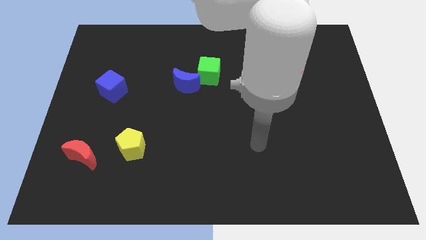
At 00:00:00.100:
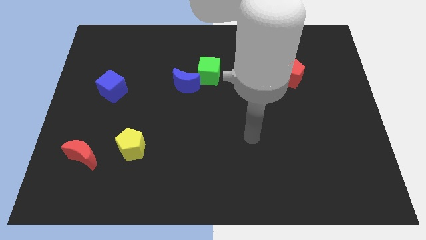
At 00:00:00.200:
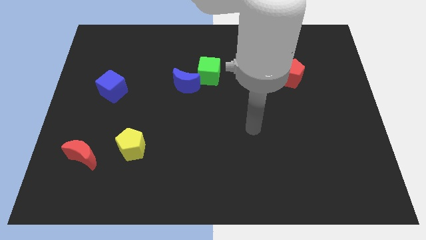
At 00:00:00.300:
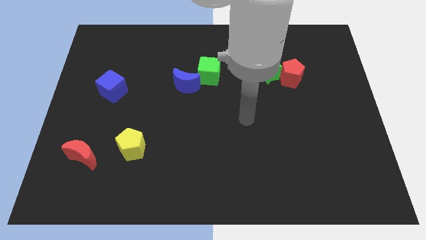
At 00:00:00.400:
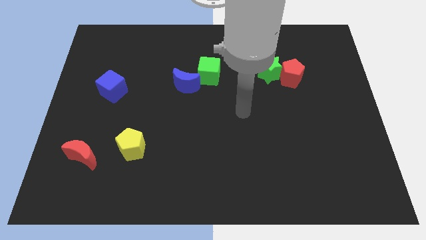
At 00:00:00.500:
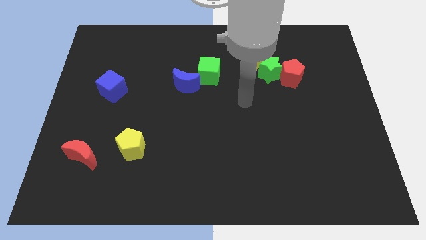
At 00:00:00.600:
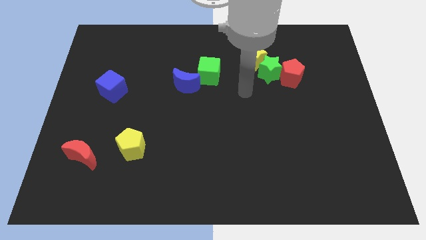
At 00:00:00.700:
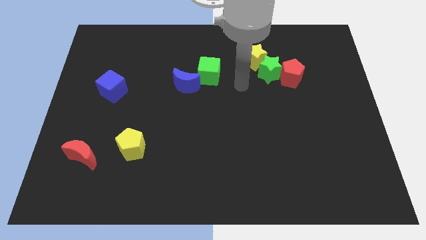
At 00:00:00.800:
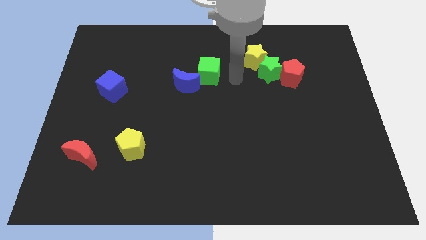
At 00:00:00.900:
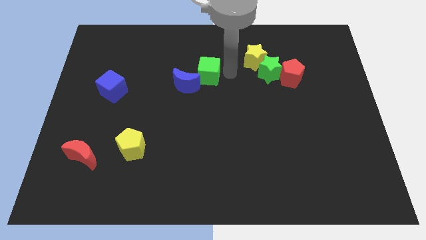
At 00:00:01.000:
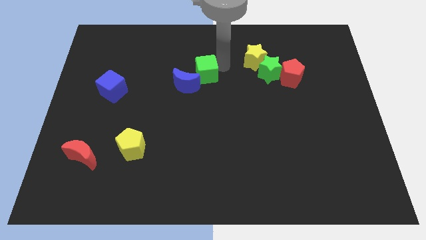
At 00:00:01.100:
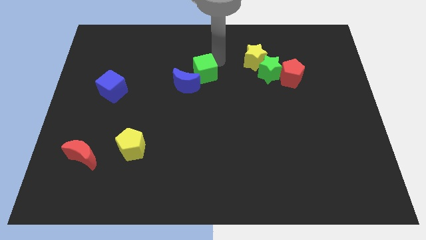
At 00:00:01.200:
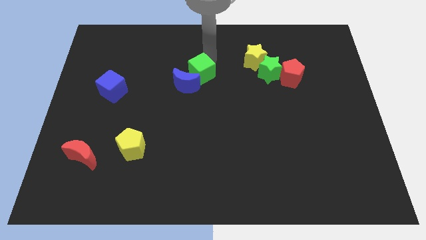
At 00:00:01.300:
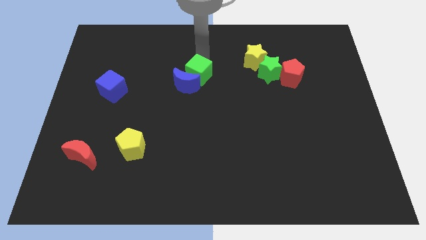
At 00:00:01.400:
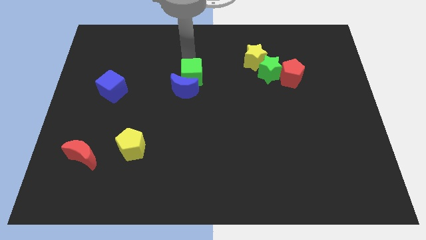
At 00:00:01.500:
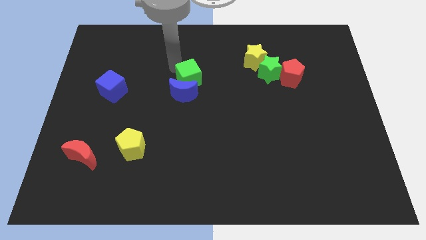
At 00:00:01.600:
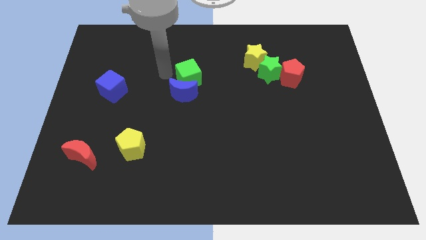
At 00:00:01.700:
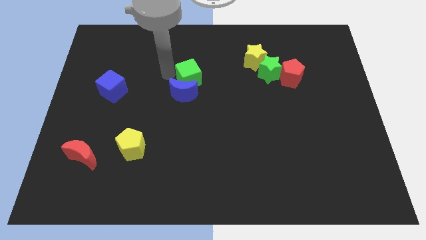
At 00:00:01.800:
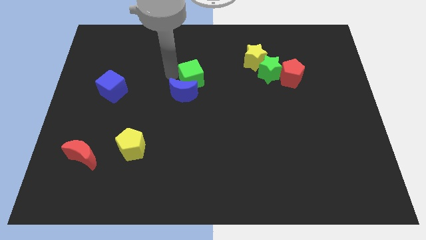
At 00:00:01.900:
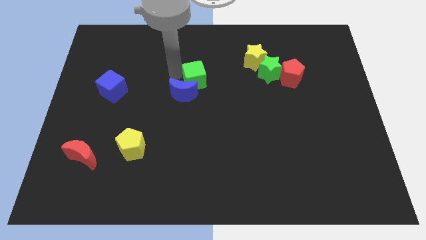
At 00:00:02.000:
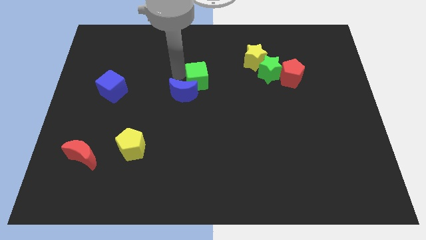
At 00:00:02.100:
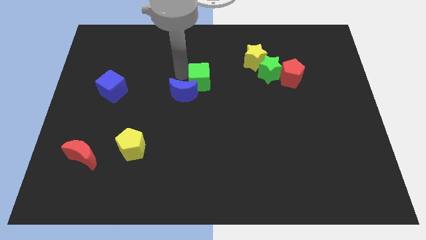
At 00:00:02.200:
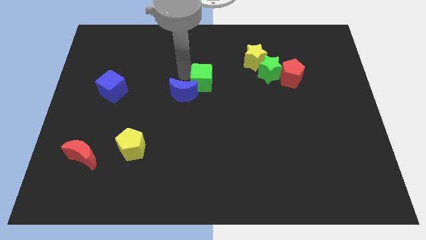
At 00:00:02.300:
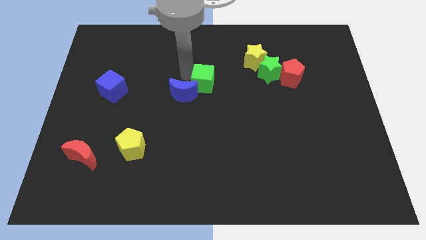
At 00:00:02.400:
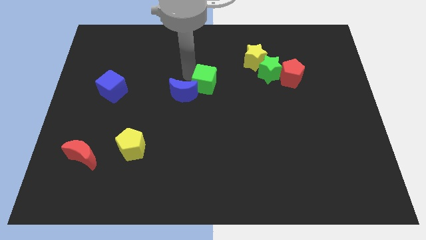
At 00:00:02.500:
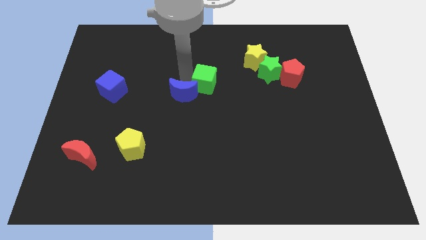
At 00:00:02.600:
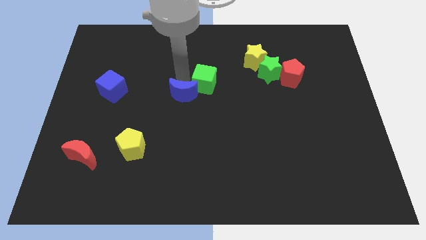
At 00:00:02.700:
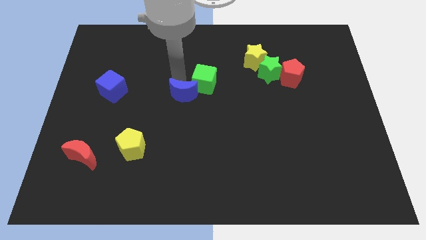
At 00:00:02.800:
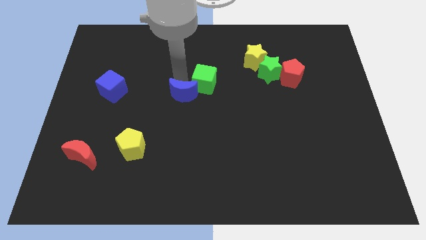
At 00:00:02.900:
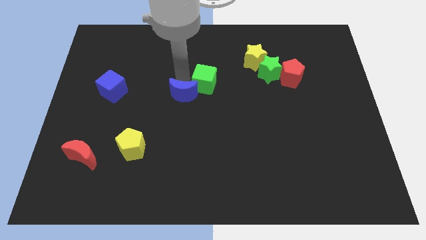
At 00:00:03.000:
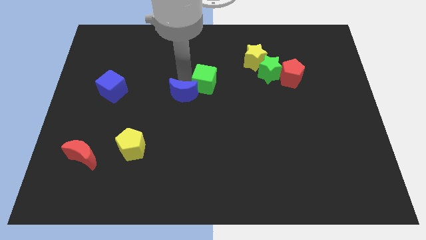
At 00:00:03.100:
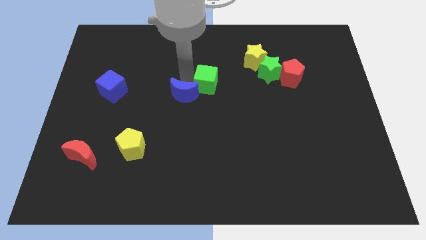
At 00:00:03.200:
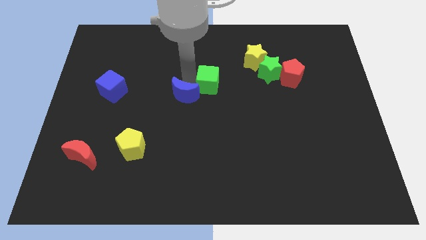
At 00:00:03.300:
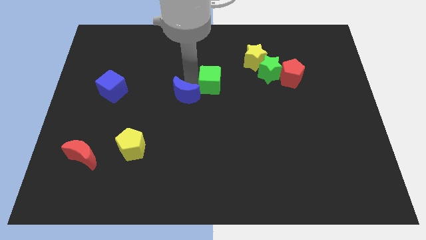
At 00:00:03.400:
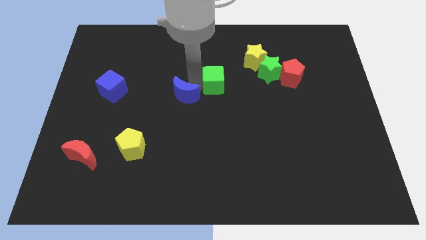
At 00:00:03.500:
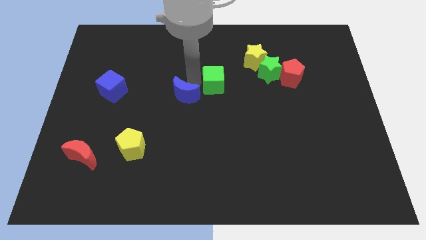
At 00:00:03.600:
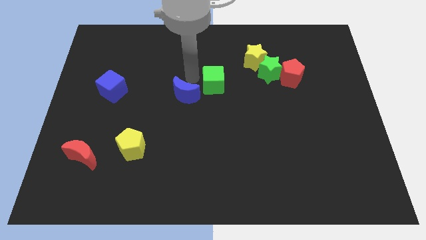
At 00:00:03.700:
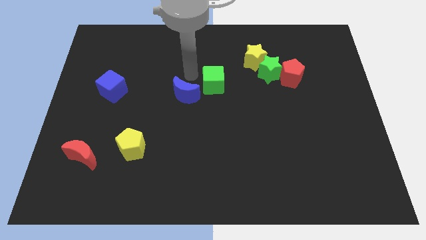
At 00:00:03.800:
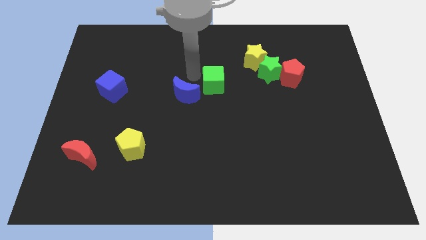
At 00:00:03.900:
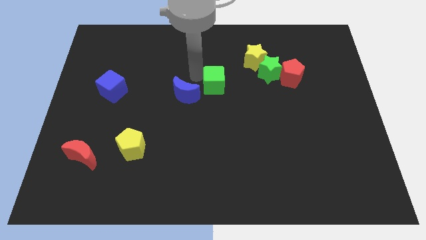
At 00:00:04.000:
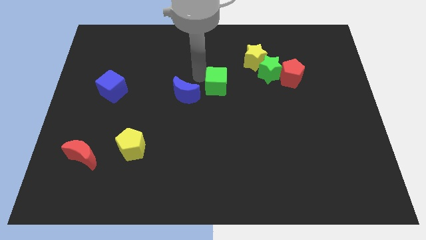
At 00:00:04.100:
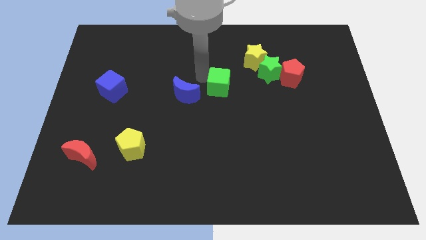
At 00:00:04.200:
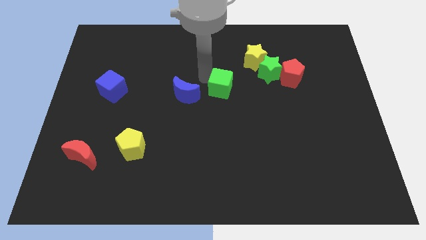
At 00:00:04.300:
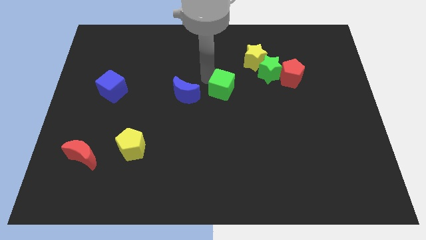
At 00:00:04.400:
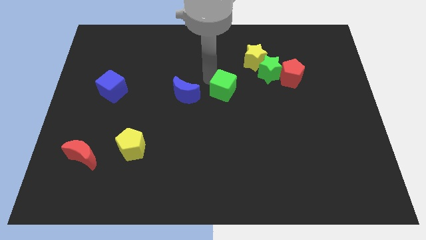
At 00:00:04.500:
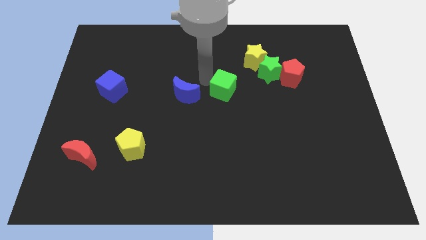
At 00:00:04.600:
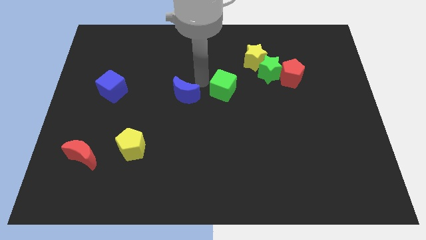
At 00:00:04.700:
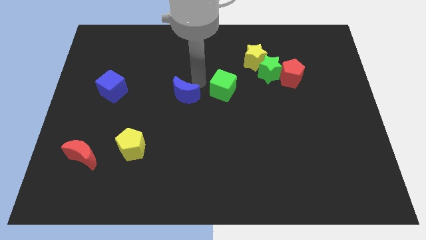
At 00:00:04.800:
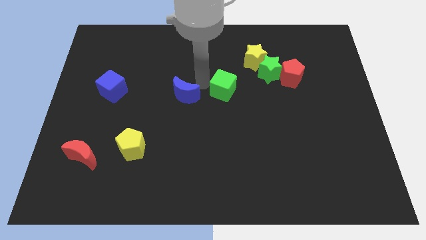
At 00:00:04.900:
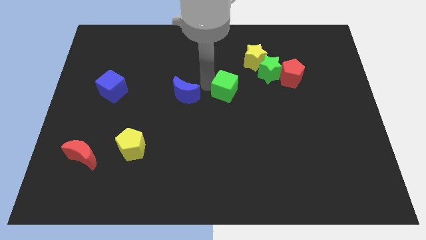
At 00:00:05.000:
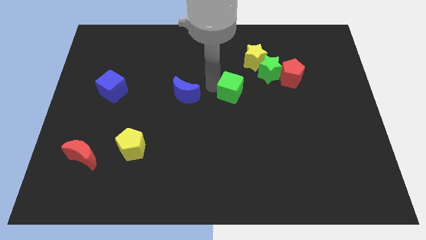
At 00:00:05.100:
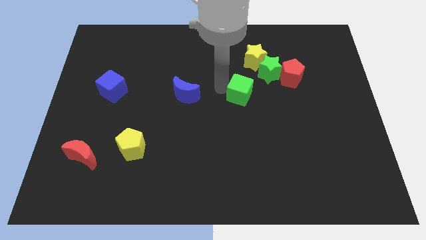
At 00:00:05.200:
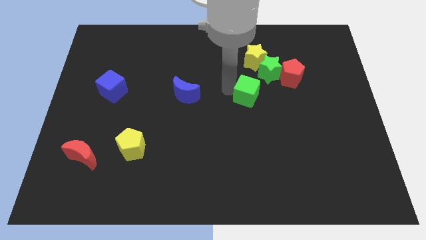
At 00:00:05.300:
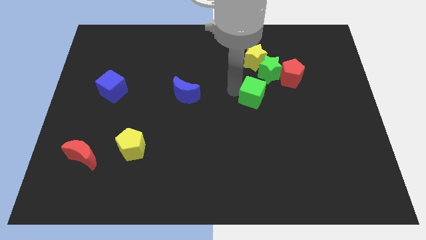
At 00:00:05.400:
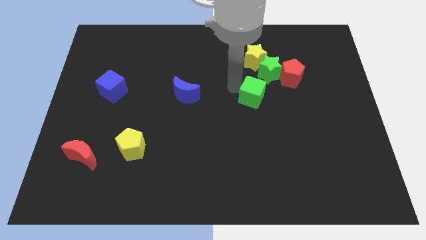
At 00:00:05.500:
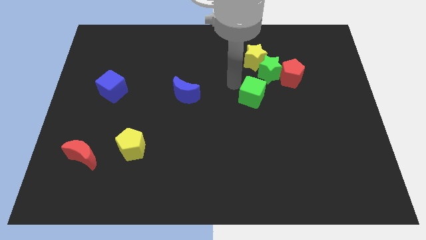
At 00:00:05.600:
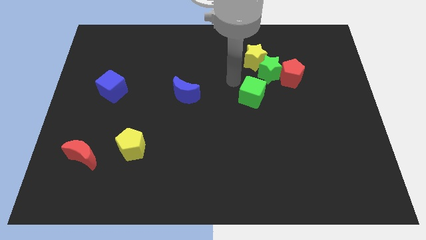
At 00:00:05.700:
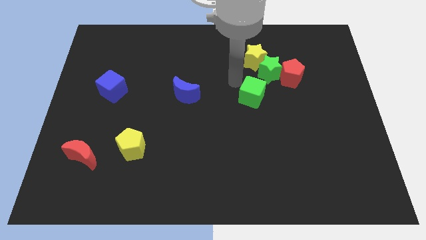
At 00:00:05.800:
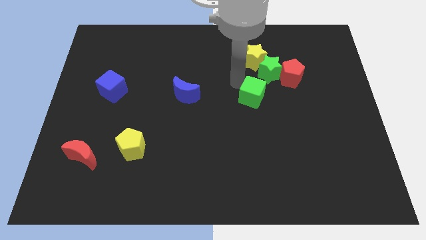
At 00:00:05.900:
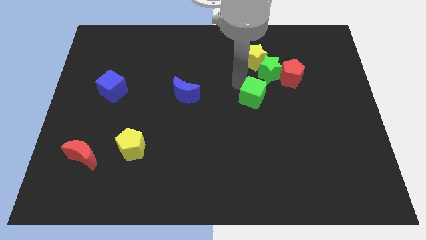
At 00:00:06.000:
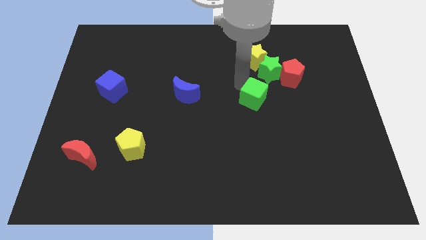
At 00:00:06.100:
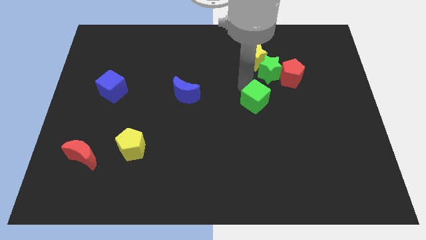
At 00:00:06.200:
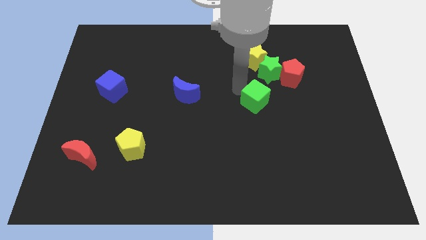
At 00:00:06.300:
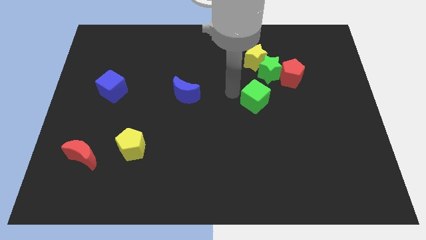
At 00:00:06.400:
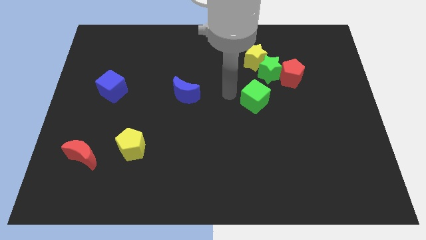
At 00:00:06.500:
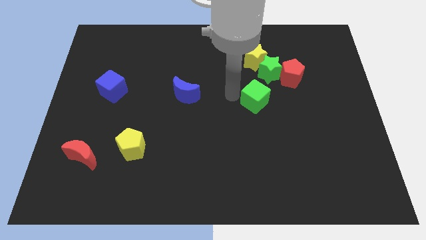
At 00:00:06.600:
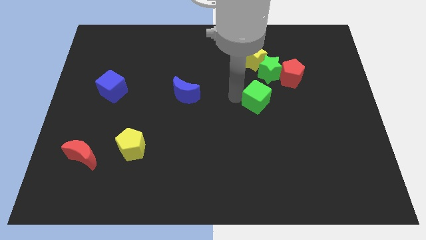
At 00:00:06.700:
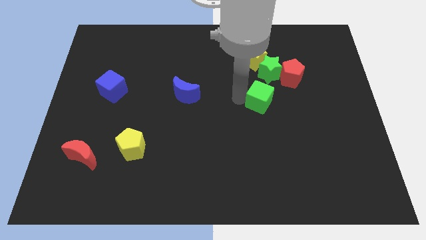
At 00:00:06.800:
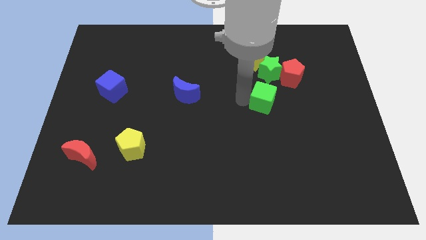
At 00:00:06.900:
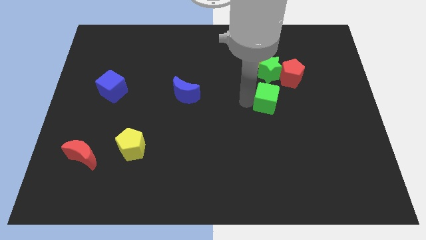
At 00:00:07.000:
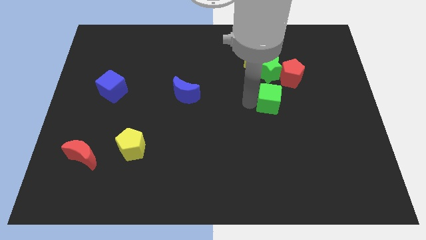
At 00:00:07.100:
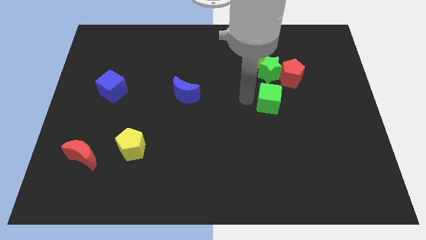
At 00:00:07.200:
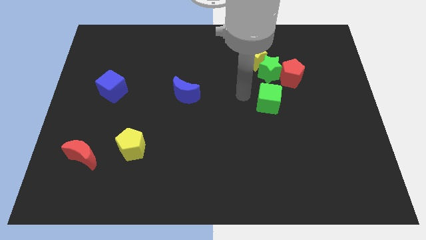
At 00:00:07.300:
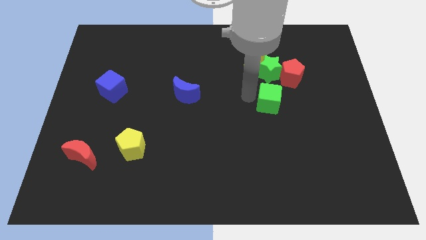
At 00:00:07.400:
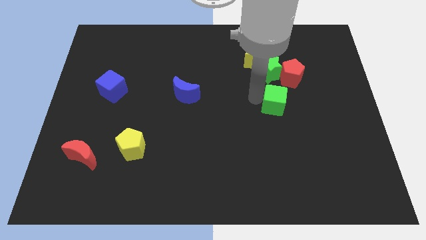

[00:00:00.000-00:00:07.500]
slide the green cube below the red pentagon
